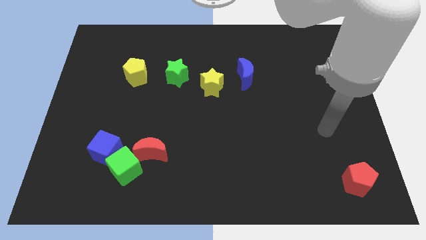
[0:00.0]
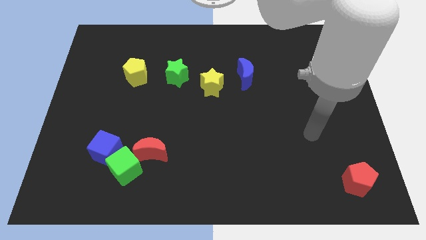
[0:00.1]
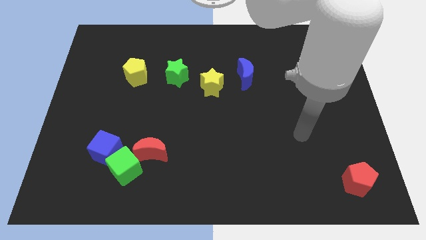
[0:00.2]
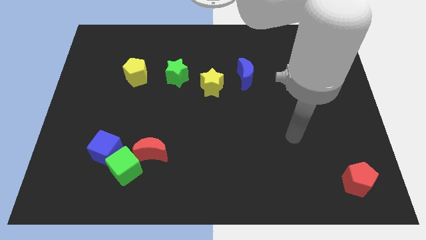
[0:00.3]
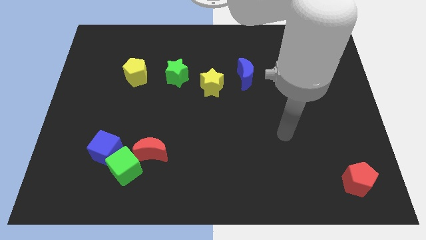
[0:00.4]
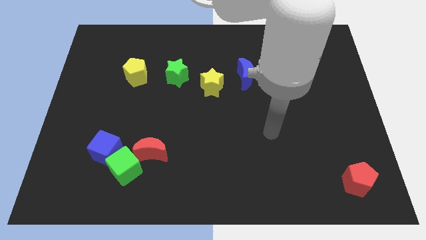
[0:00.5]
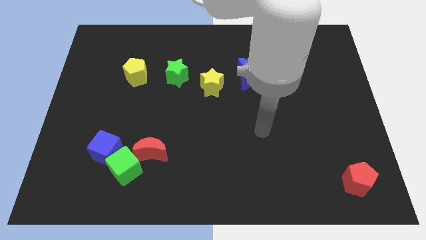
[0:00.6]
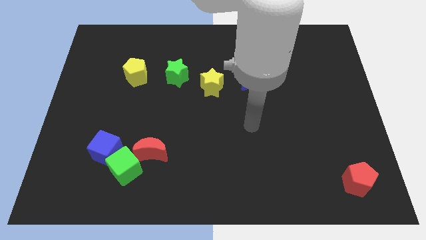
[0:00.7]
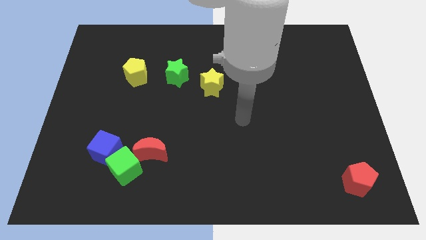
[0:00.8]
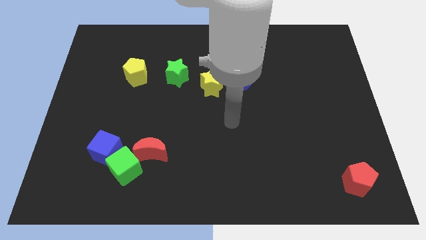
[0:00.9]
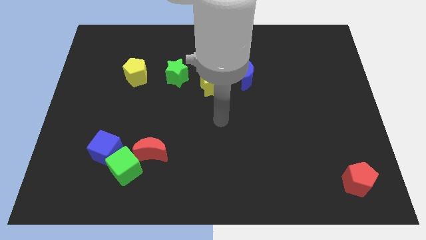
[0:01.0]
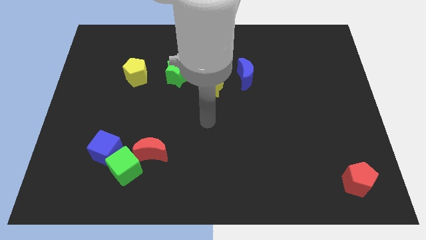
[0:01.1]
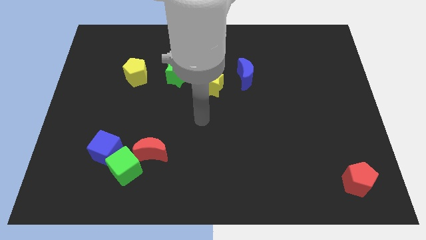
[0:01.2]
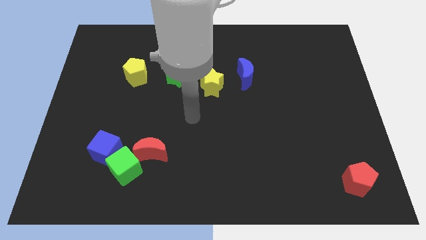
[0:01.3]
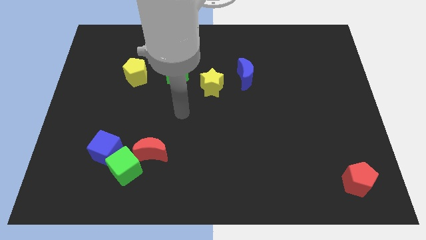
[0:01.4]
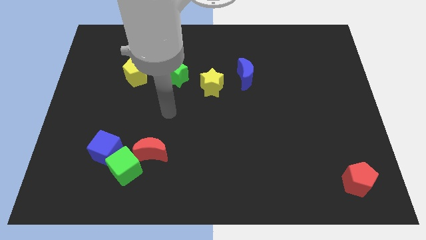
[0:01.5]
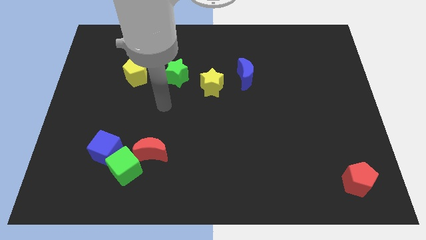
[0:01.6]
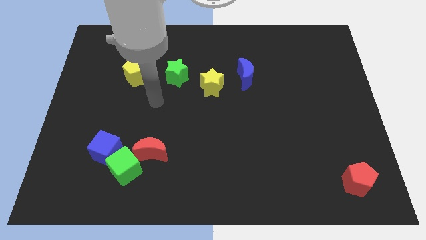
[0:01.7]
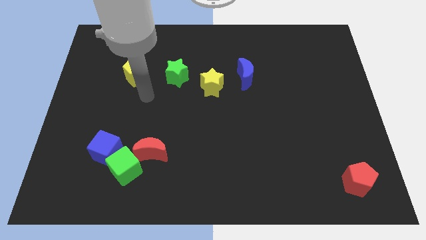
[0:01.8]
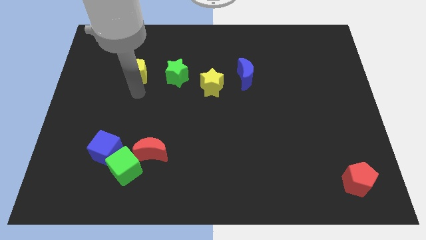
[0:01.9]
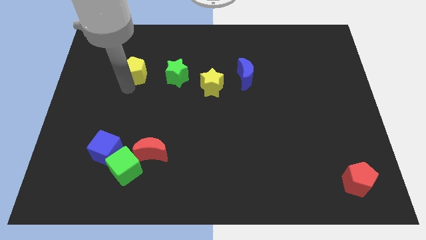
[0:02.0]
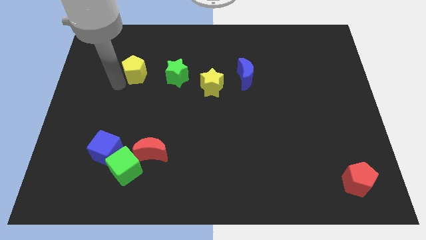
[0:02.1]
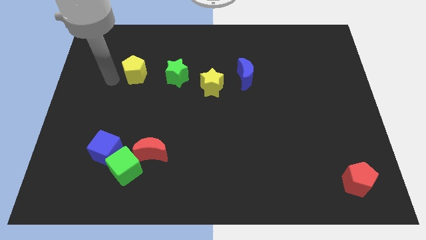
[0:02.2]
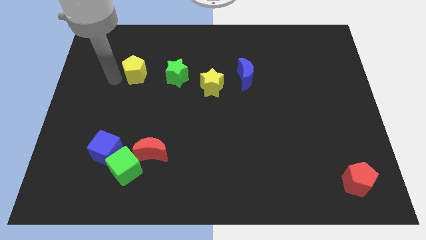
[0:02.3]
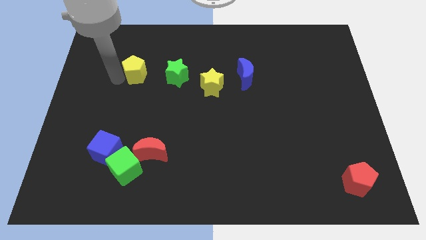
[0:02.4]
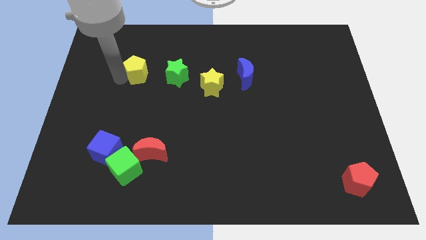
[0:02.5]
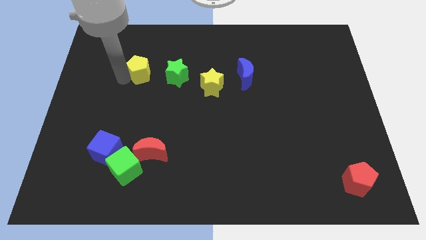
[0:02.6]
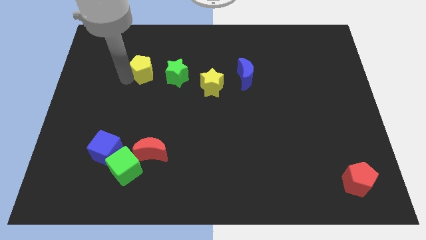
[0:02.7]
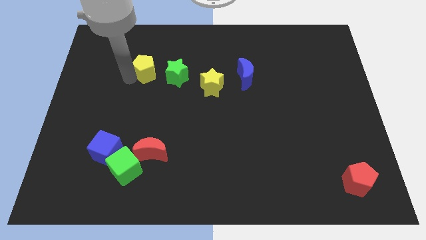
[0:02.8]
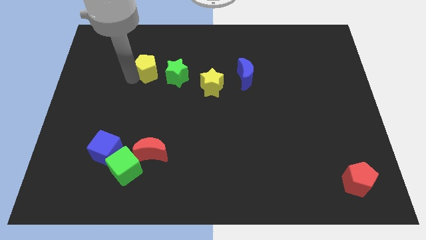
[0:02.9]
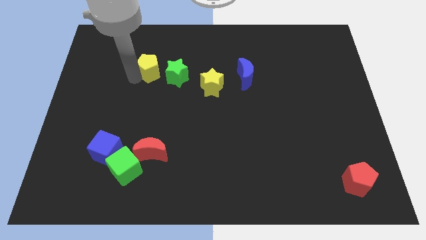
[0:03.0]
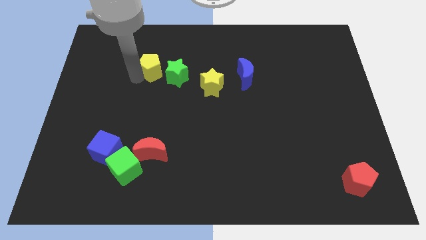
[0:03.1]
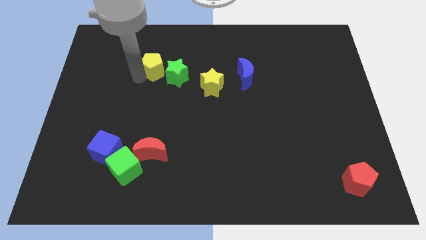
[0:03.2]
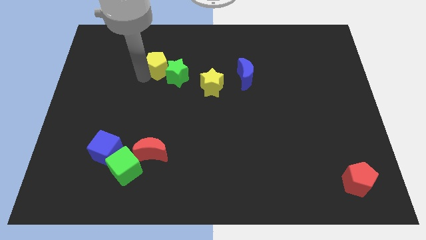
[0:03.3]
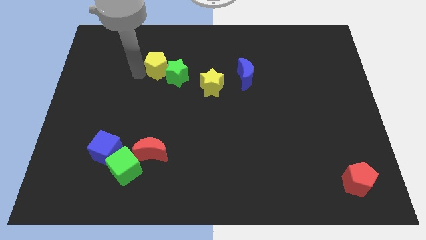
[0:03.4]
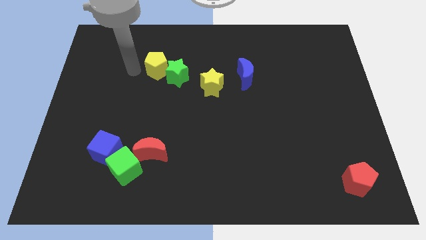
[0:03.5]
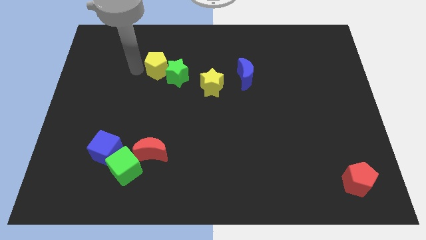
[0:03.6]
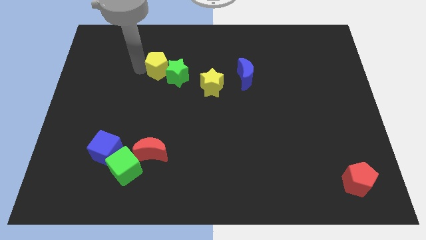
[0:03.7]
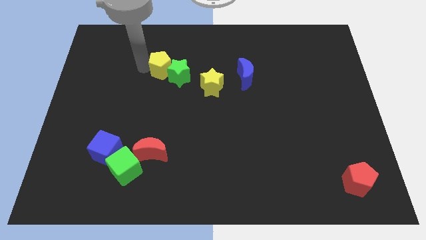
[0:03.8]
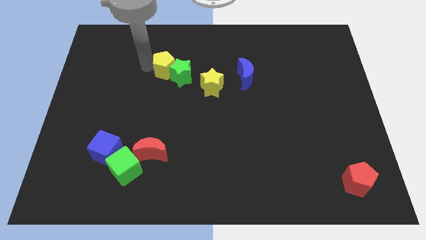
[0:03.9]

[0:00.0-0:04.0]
slide the yellow pentagon to the right a bit

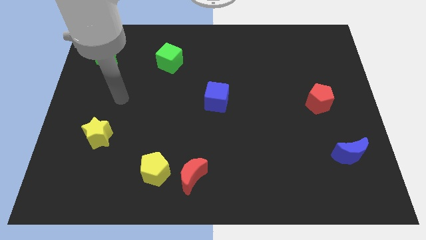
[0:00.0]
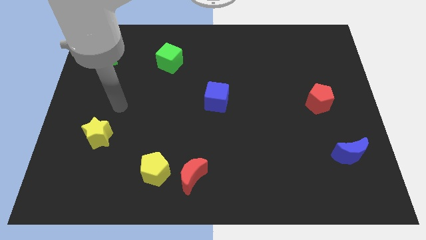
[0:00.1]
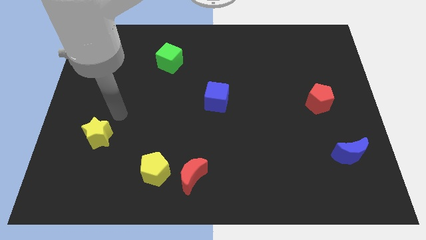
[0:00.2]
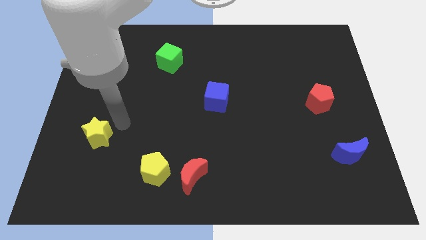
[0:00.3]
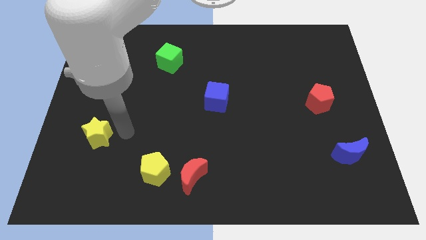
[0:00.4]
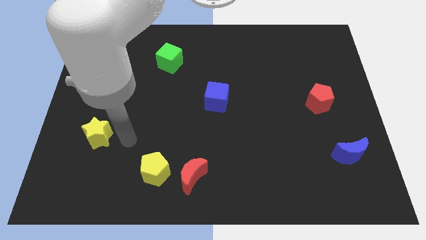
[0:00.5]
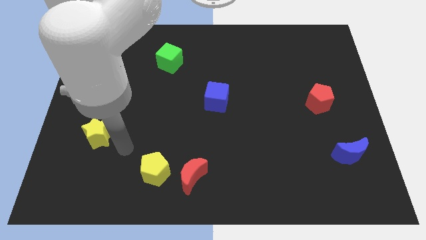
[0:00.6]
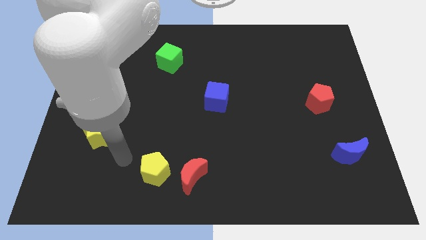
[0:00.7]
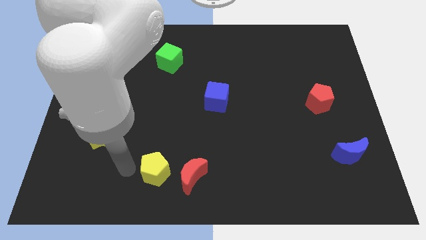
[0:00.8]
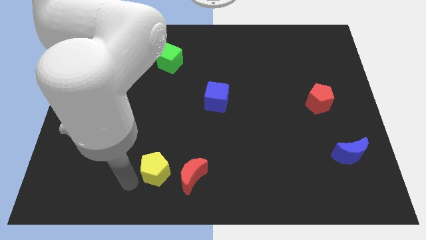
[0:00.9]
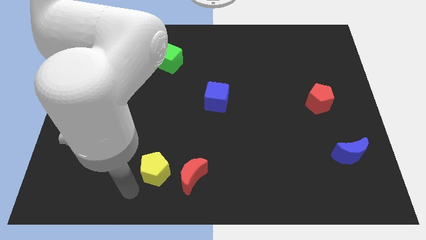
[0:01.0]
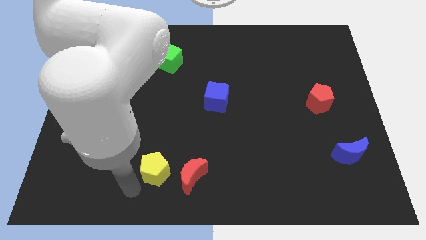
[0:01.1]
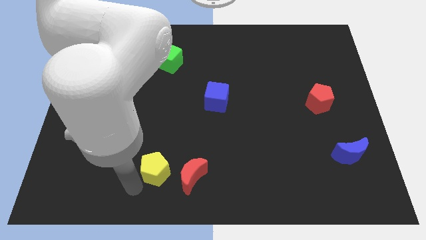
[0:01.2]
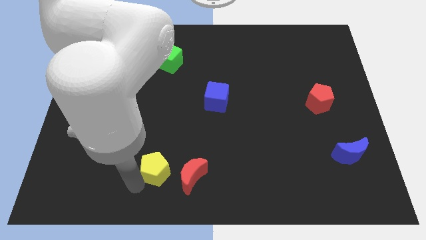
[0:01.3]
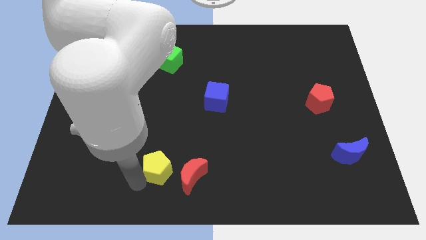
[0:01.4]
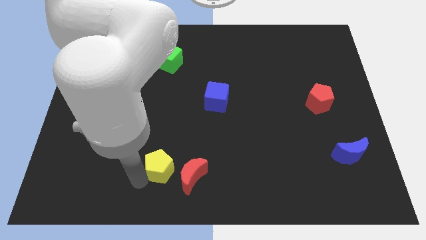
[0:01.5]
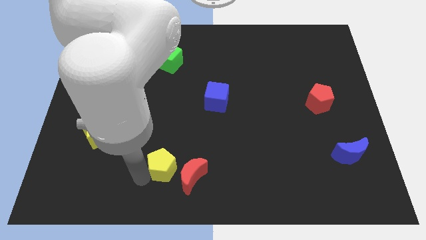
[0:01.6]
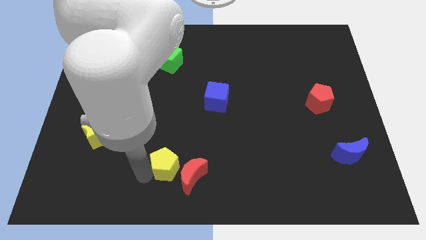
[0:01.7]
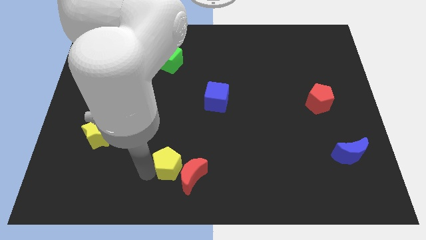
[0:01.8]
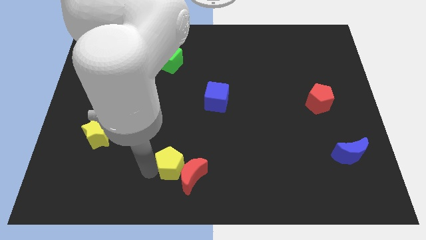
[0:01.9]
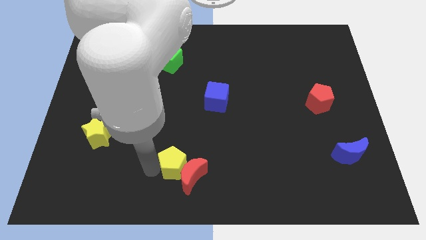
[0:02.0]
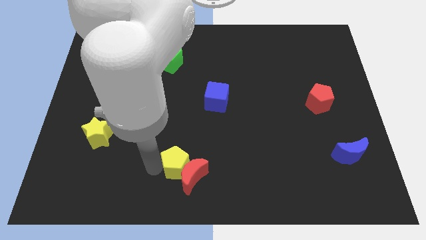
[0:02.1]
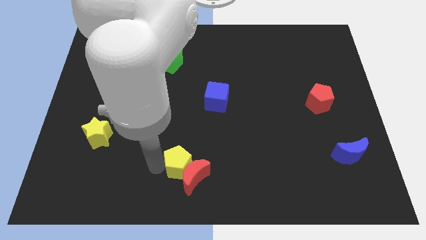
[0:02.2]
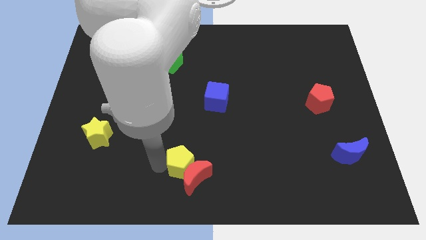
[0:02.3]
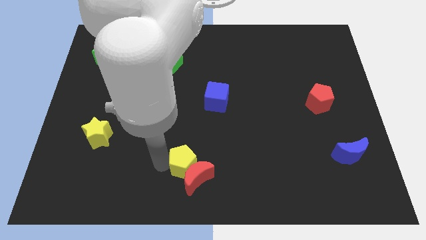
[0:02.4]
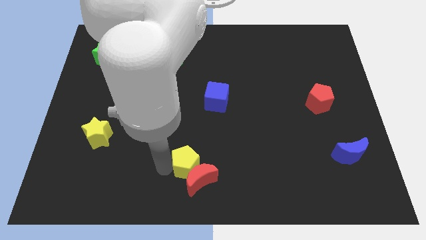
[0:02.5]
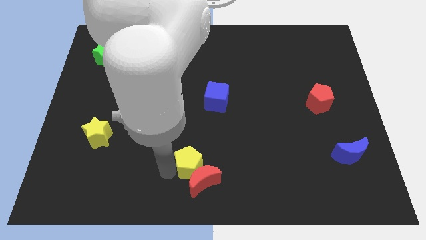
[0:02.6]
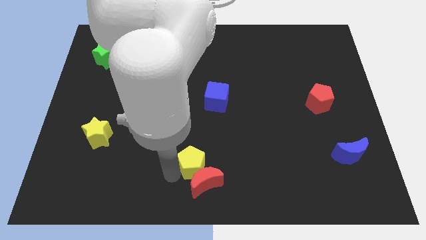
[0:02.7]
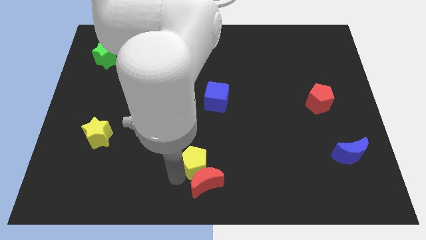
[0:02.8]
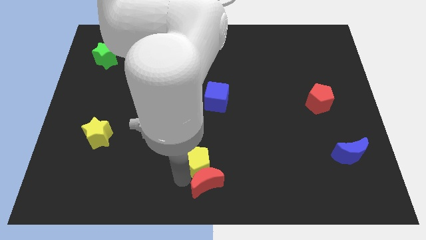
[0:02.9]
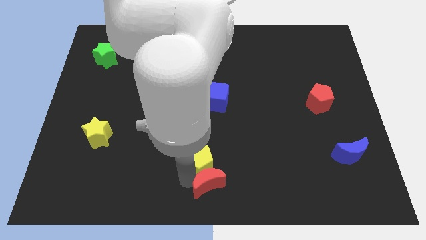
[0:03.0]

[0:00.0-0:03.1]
move the yellow pentagon slightly diagonally up and to the right

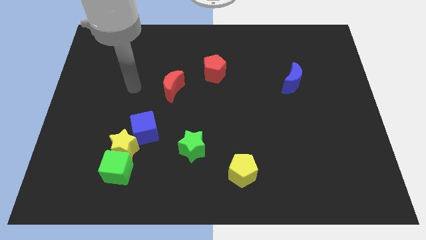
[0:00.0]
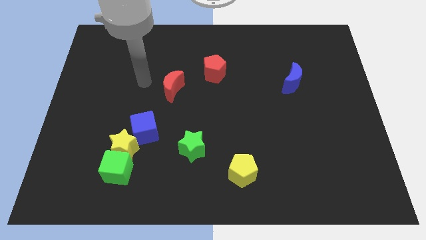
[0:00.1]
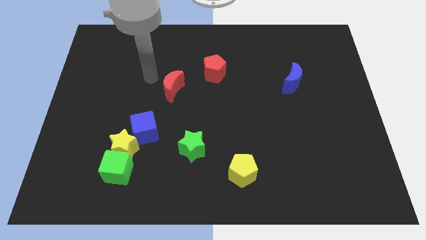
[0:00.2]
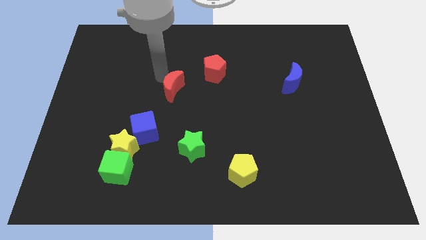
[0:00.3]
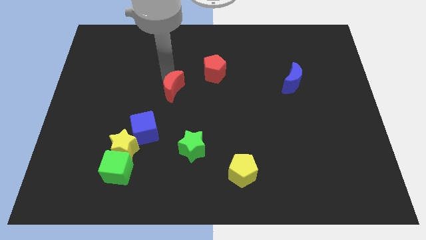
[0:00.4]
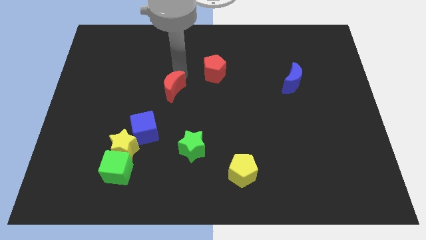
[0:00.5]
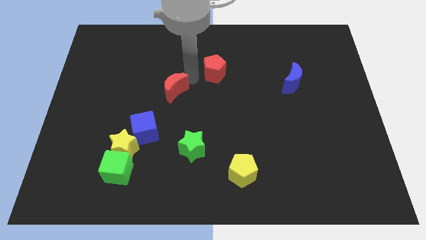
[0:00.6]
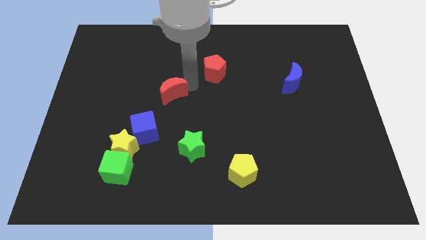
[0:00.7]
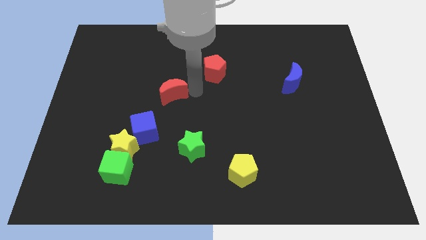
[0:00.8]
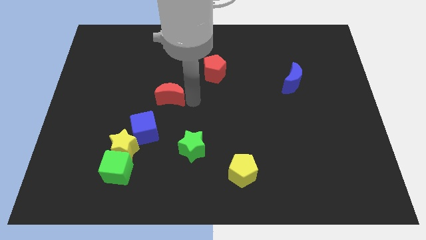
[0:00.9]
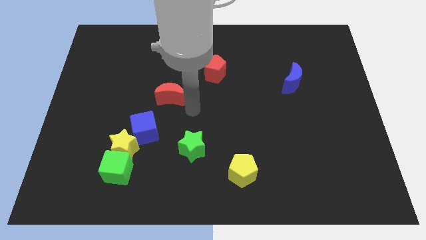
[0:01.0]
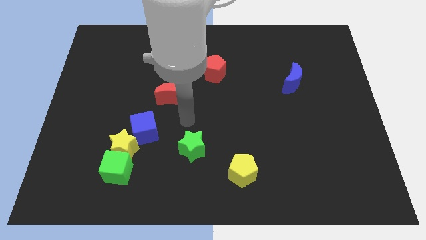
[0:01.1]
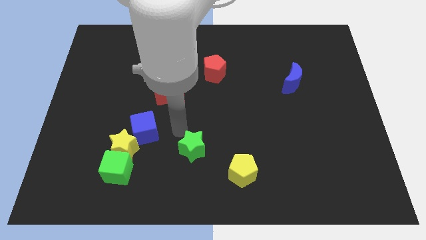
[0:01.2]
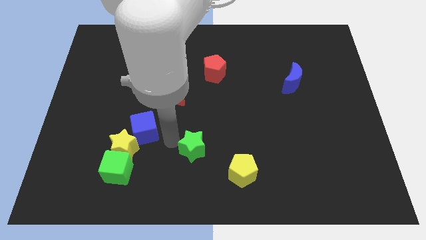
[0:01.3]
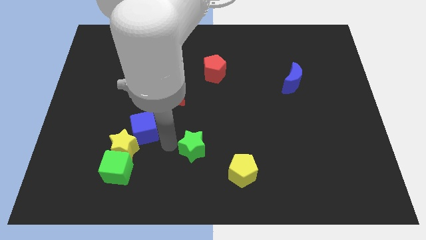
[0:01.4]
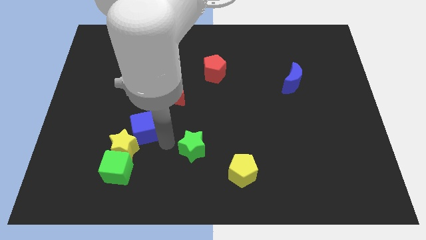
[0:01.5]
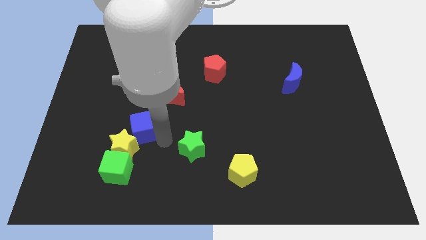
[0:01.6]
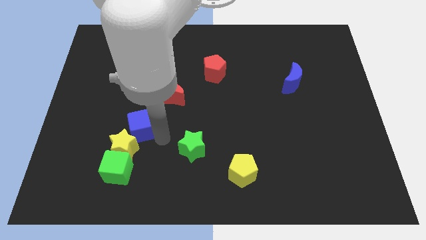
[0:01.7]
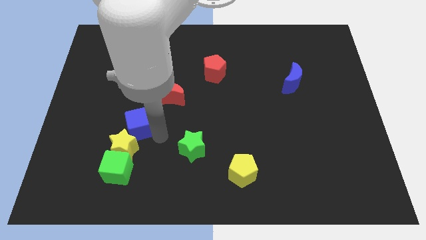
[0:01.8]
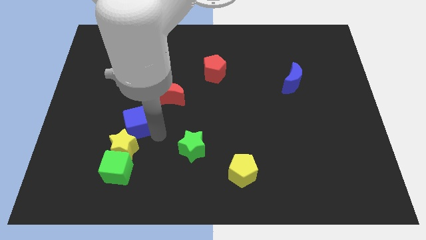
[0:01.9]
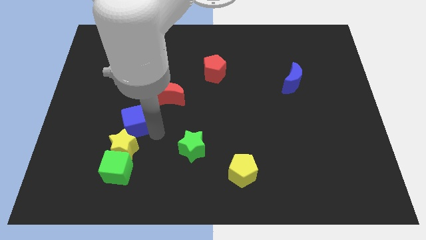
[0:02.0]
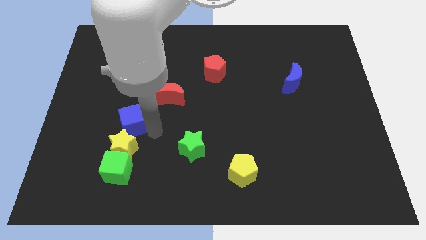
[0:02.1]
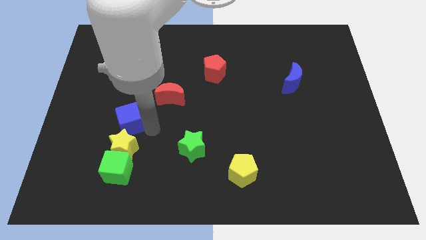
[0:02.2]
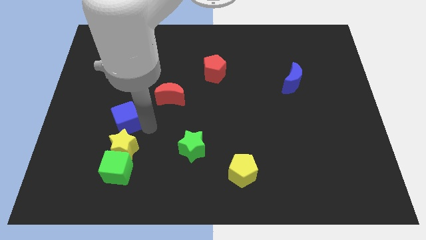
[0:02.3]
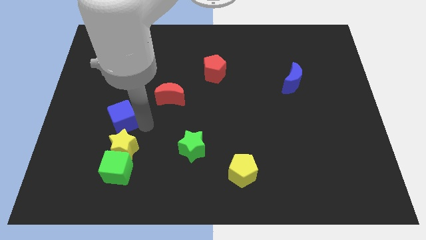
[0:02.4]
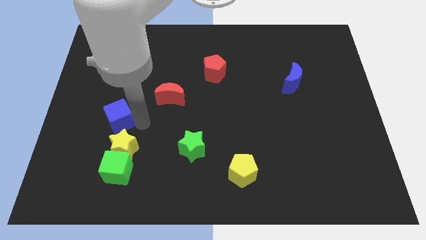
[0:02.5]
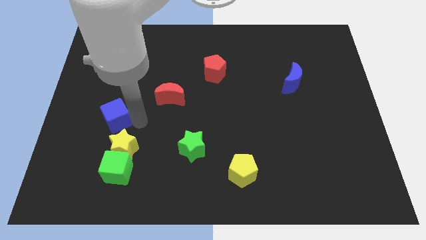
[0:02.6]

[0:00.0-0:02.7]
move the blue cube a little upwards and then to the left
